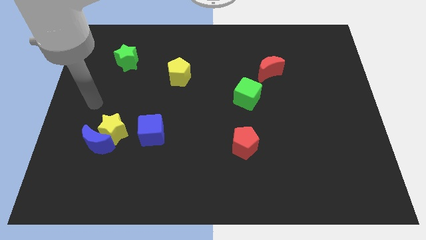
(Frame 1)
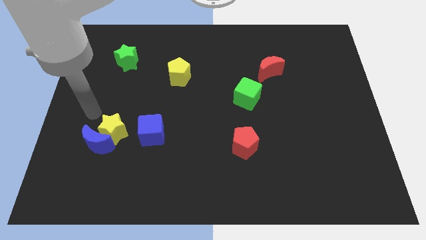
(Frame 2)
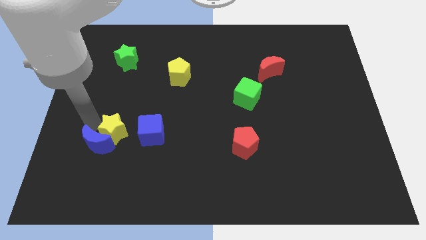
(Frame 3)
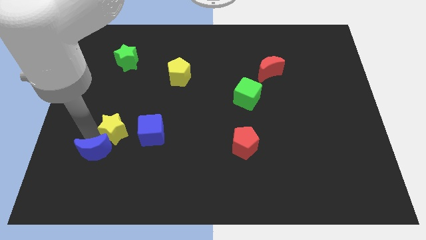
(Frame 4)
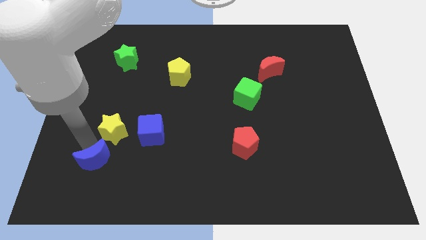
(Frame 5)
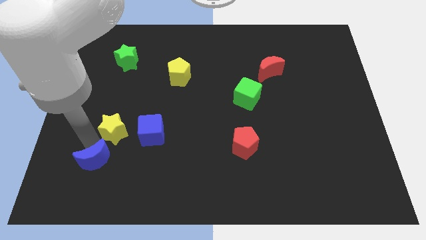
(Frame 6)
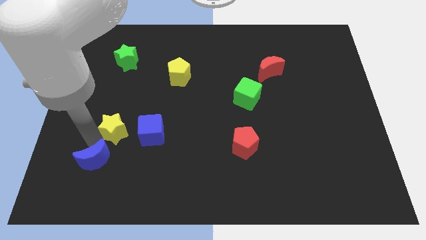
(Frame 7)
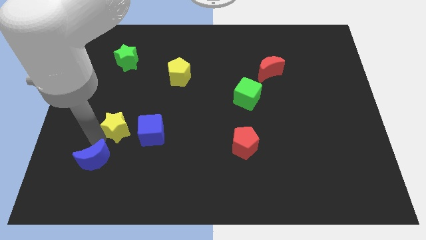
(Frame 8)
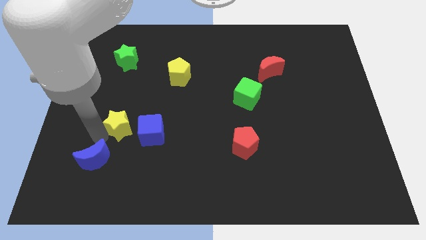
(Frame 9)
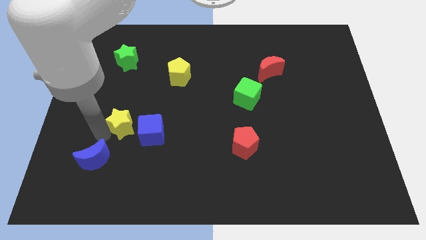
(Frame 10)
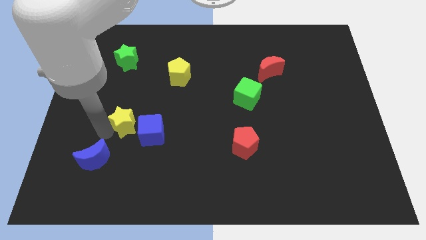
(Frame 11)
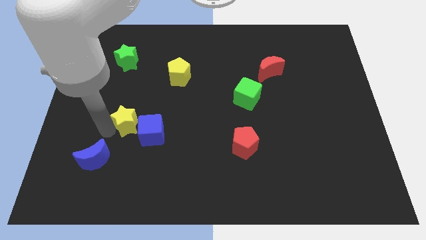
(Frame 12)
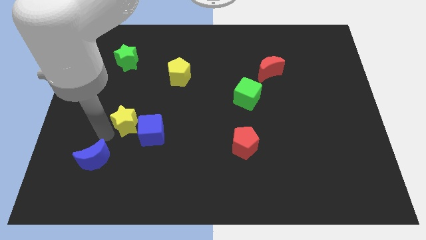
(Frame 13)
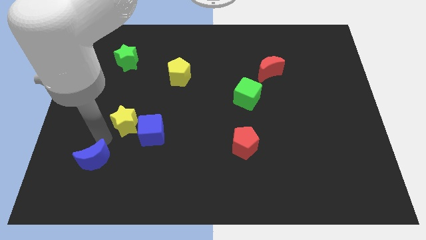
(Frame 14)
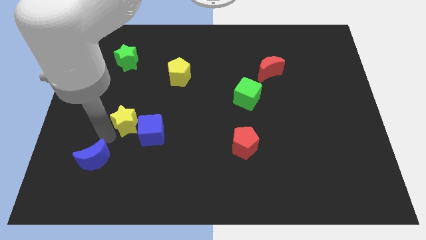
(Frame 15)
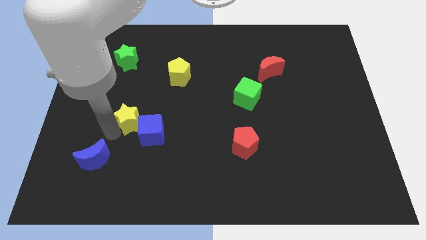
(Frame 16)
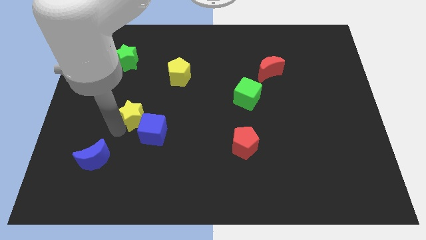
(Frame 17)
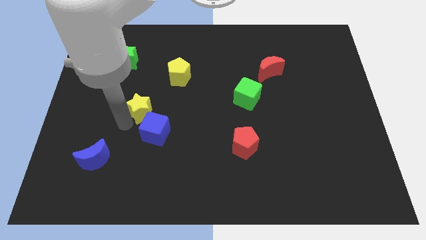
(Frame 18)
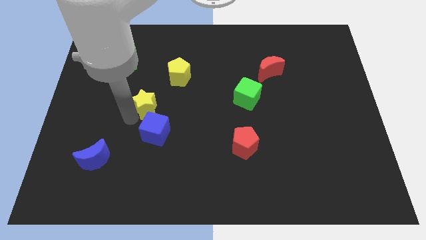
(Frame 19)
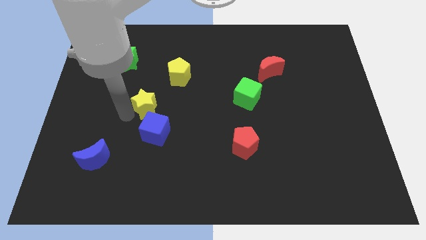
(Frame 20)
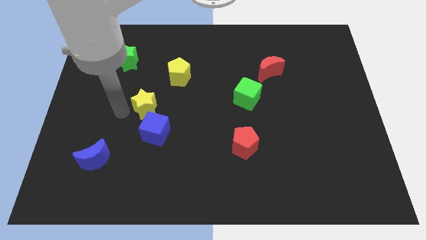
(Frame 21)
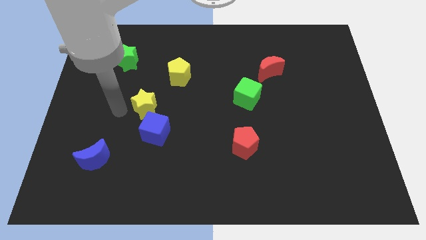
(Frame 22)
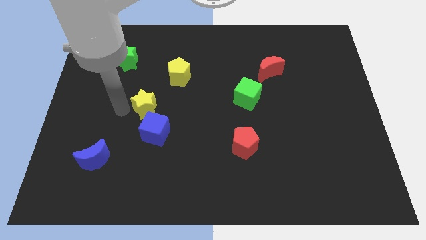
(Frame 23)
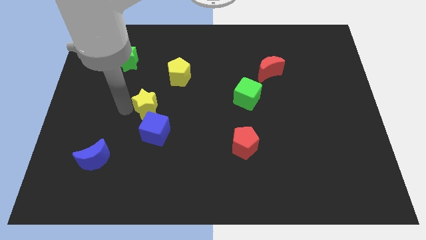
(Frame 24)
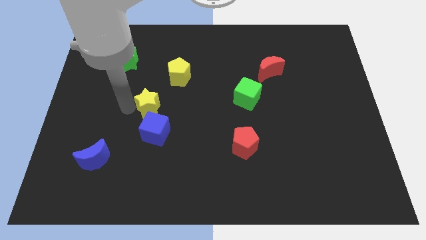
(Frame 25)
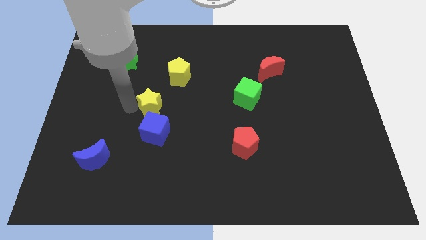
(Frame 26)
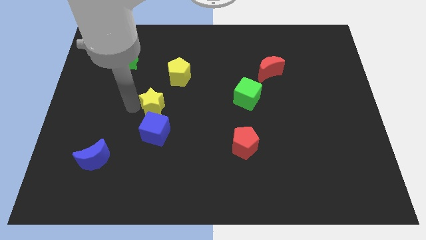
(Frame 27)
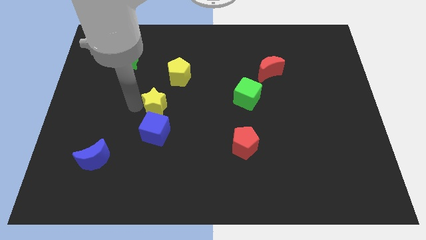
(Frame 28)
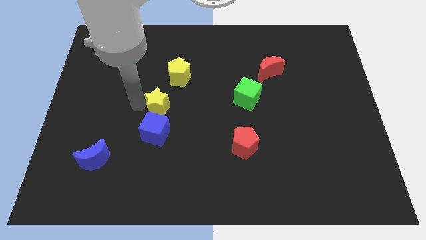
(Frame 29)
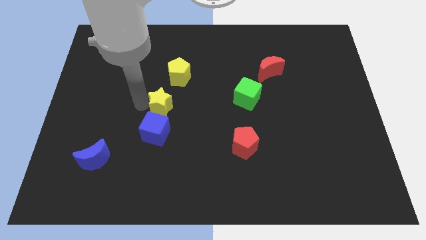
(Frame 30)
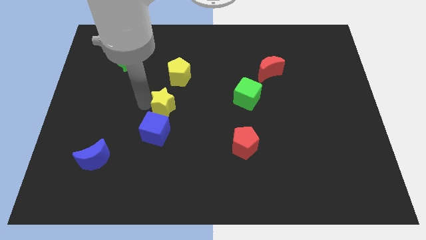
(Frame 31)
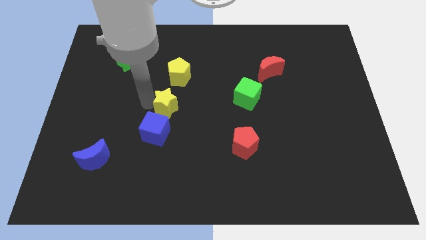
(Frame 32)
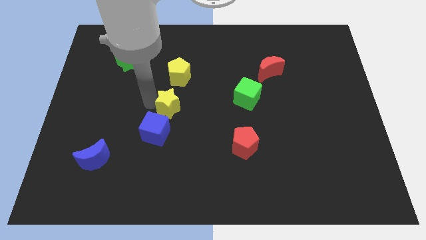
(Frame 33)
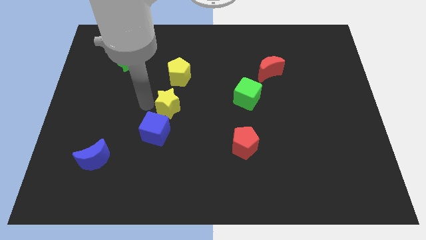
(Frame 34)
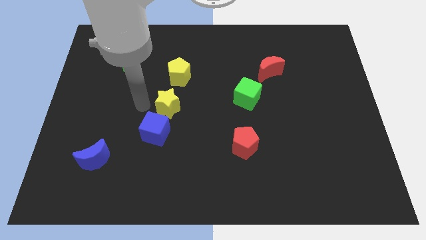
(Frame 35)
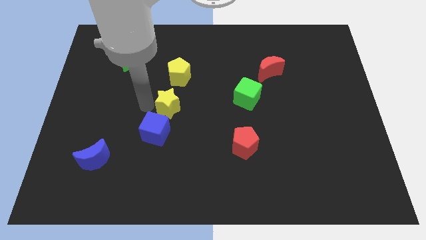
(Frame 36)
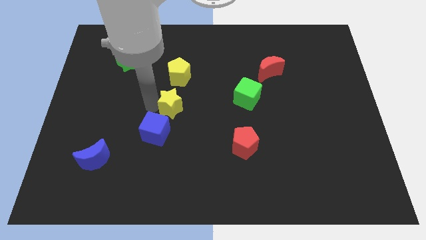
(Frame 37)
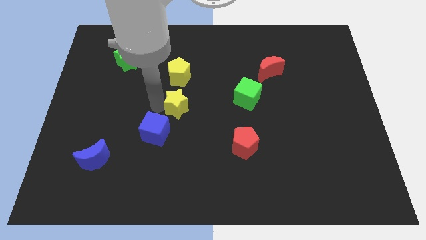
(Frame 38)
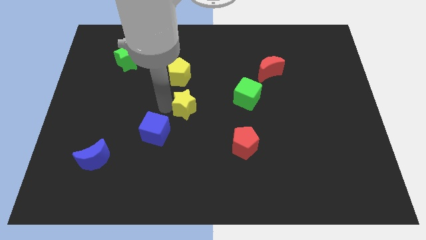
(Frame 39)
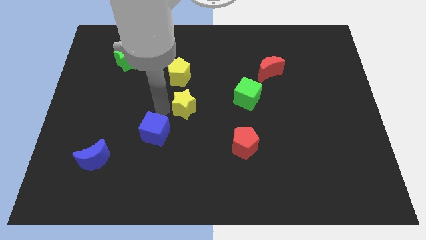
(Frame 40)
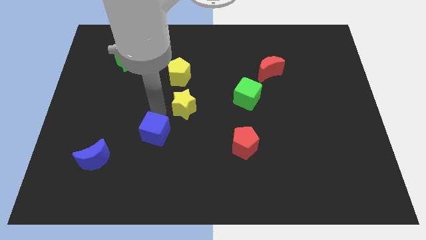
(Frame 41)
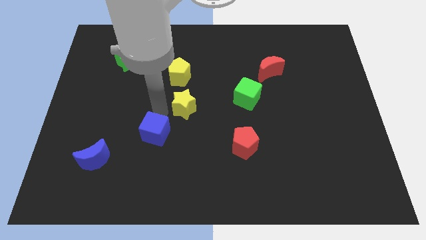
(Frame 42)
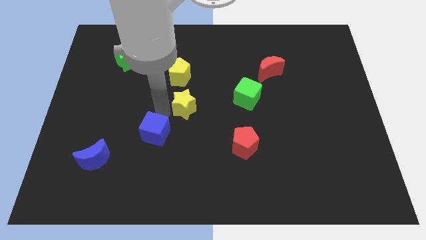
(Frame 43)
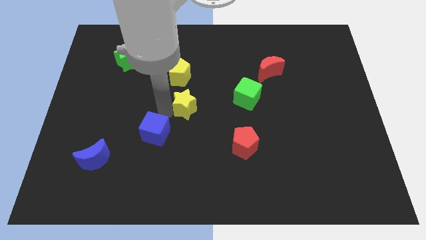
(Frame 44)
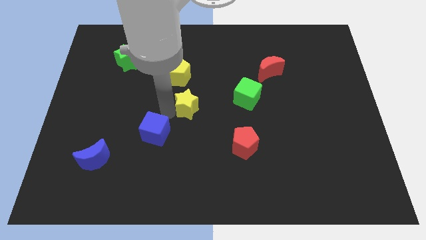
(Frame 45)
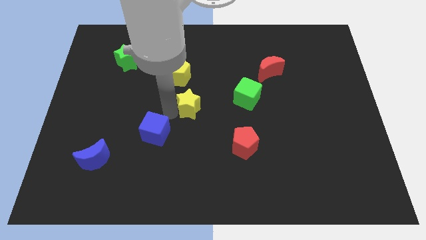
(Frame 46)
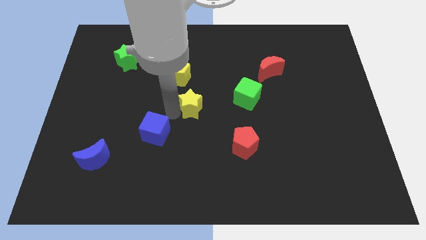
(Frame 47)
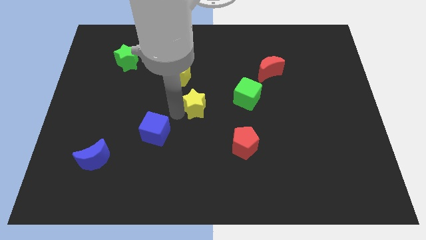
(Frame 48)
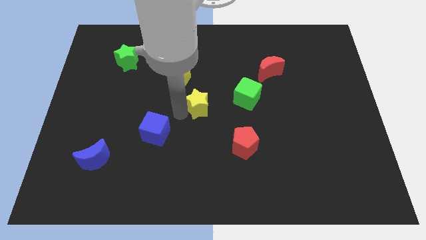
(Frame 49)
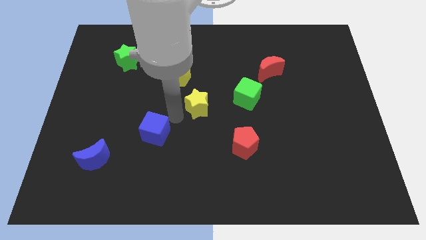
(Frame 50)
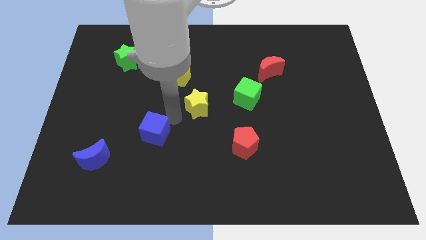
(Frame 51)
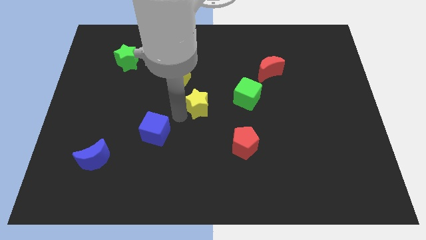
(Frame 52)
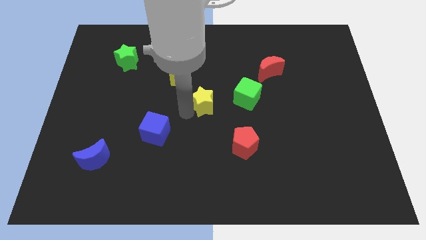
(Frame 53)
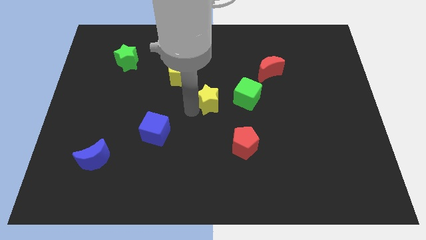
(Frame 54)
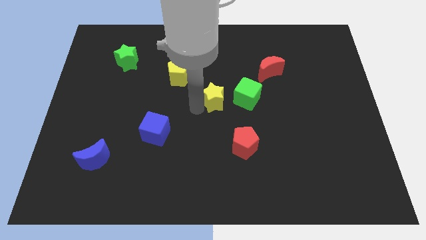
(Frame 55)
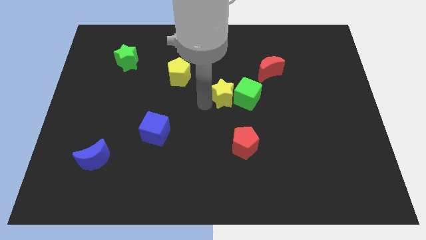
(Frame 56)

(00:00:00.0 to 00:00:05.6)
put the yellow star towards the green cube

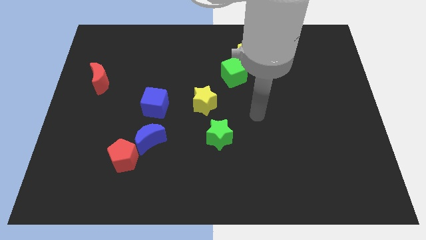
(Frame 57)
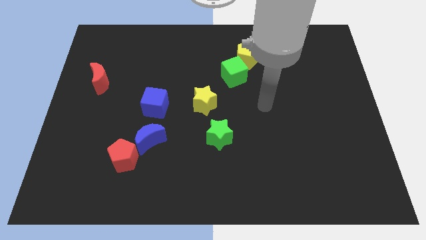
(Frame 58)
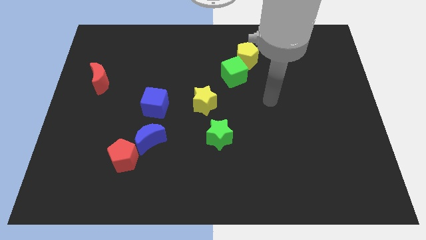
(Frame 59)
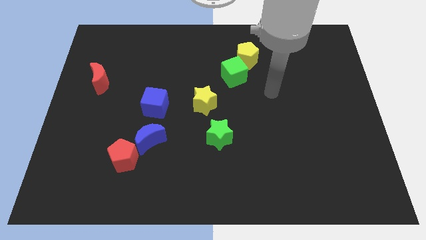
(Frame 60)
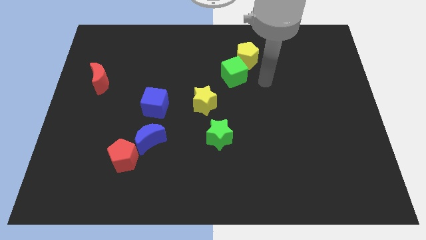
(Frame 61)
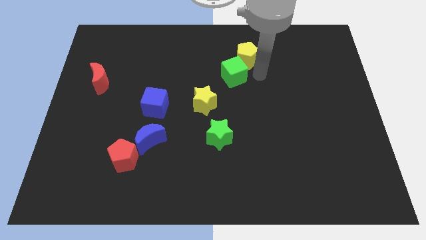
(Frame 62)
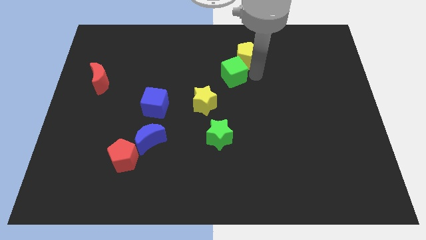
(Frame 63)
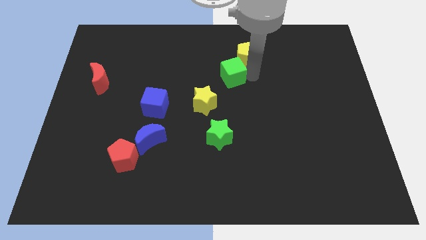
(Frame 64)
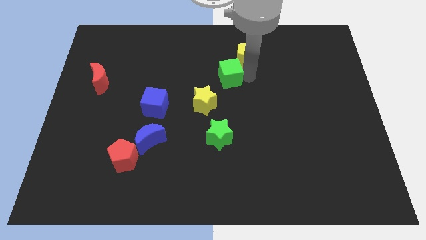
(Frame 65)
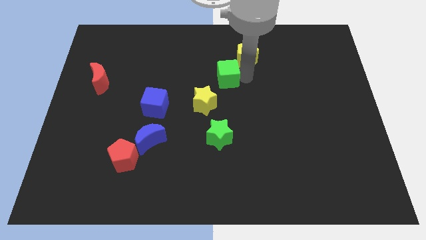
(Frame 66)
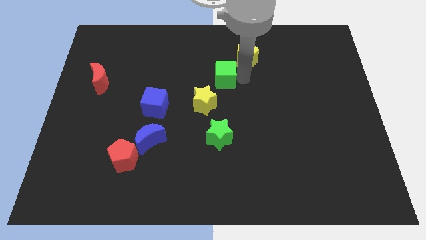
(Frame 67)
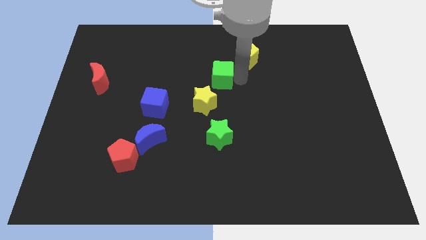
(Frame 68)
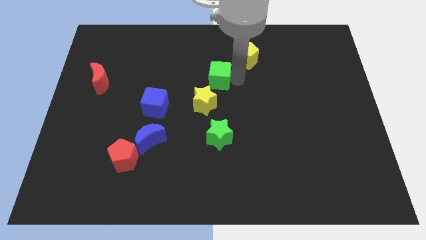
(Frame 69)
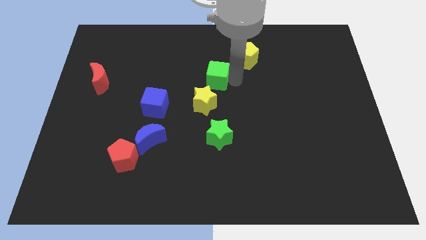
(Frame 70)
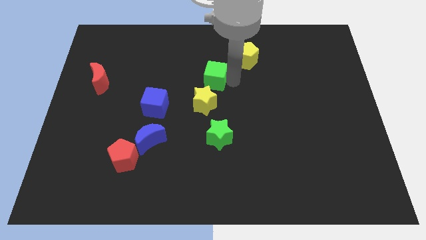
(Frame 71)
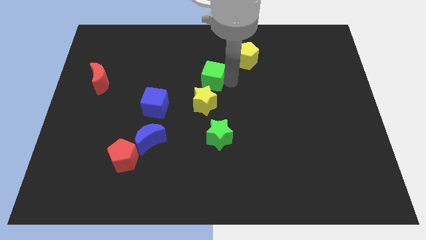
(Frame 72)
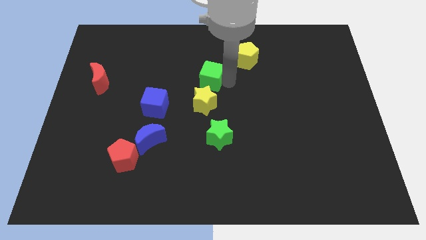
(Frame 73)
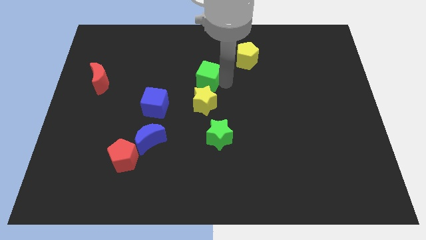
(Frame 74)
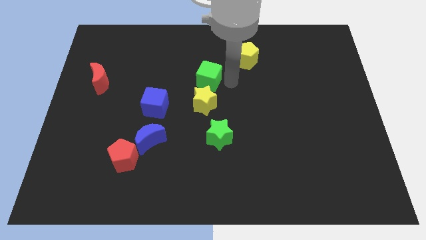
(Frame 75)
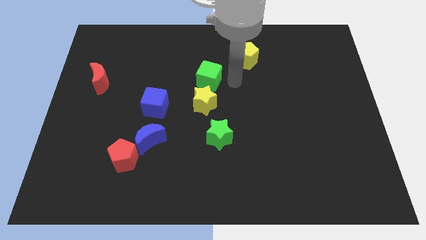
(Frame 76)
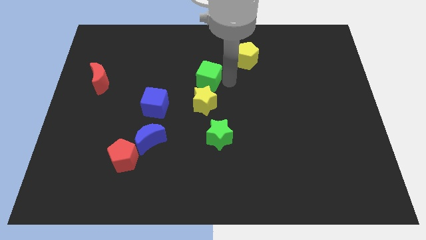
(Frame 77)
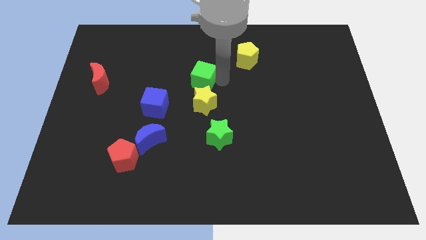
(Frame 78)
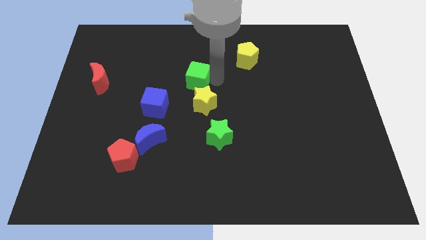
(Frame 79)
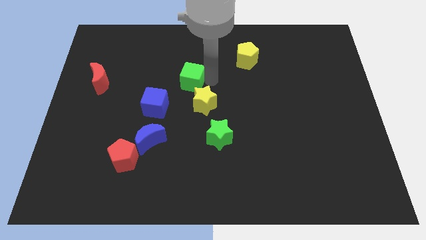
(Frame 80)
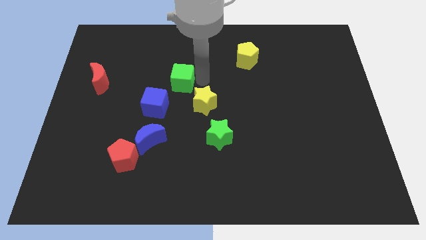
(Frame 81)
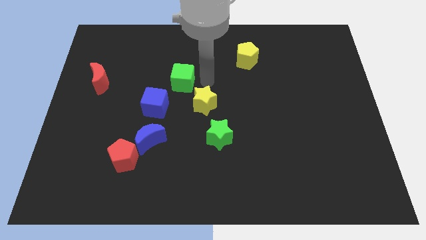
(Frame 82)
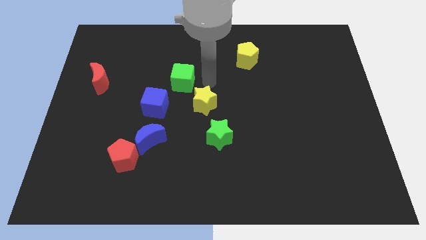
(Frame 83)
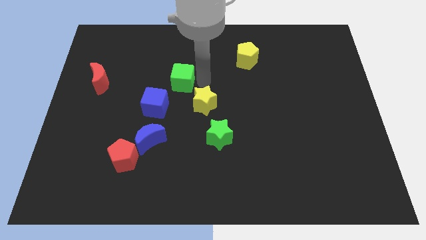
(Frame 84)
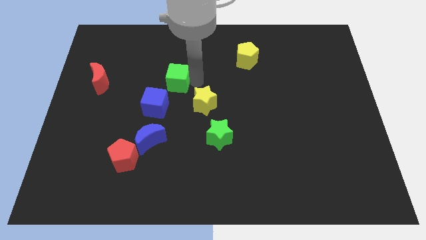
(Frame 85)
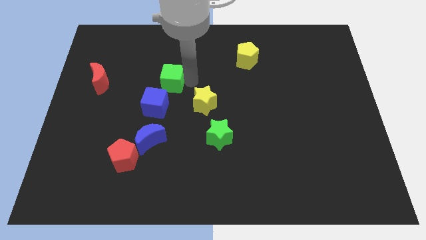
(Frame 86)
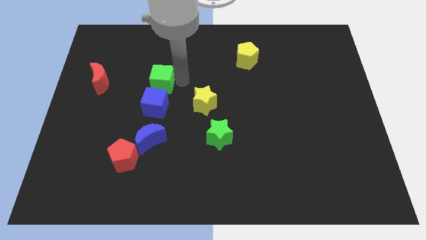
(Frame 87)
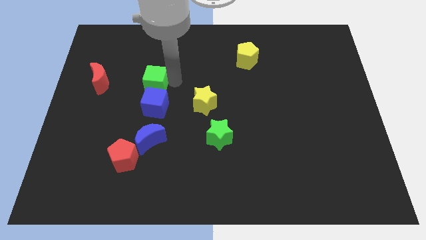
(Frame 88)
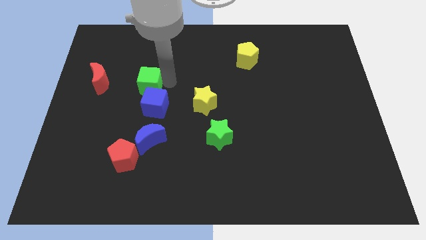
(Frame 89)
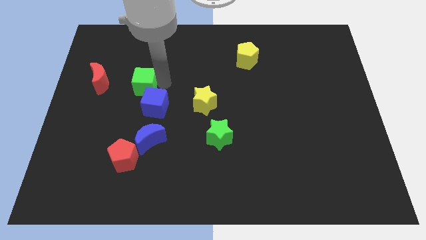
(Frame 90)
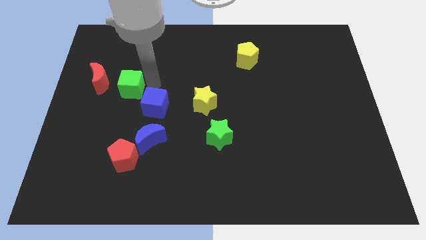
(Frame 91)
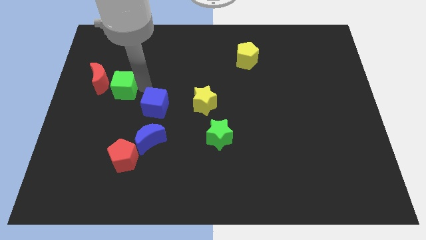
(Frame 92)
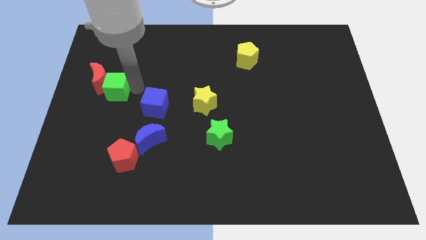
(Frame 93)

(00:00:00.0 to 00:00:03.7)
move the green cube to the red moon
